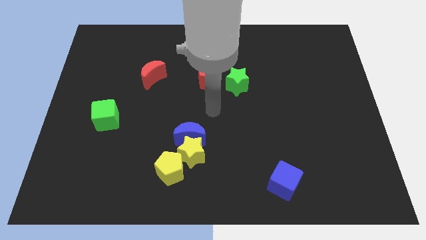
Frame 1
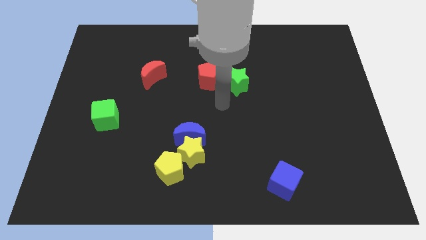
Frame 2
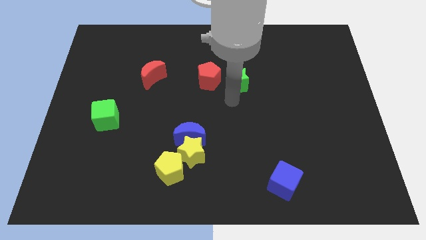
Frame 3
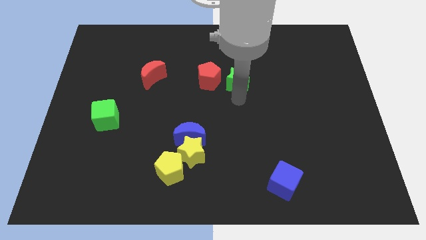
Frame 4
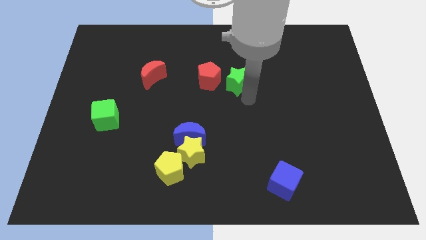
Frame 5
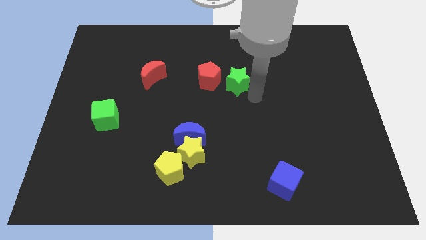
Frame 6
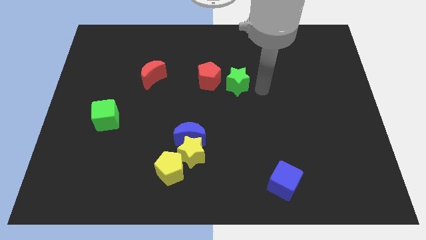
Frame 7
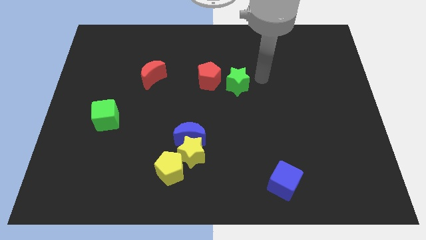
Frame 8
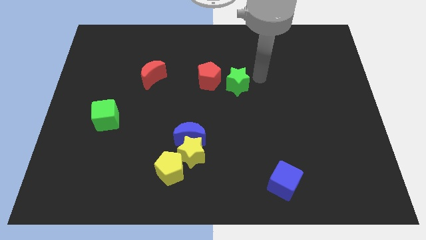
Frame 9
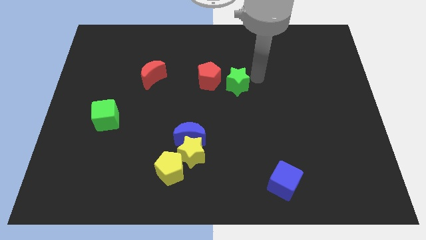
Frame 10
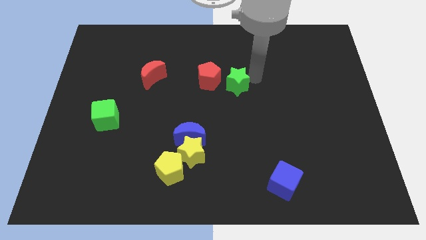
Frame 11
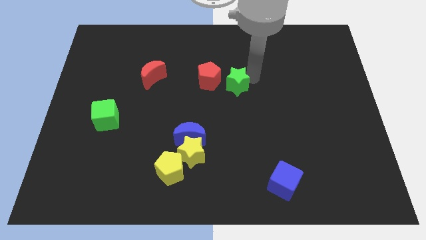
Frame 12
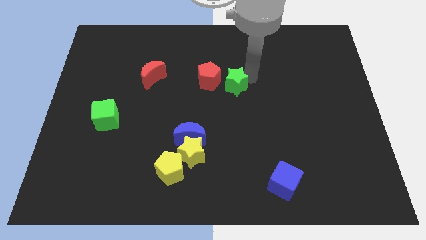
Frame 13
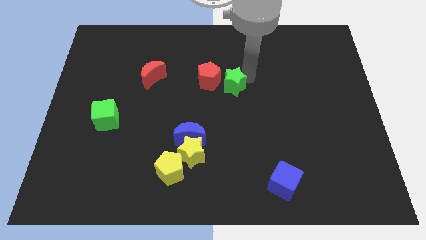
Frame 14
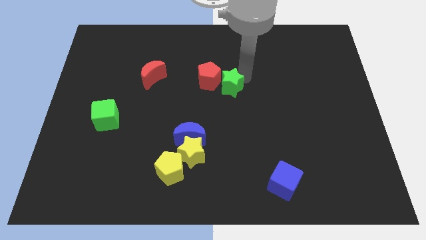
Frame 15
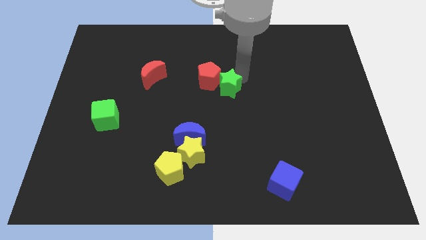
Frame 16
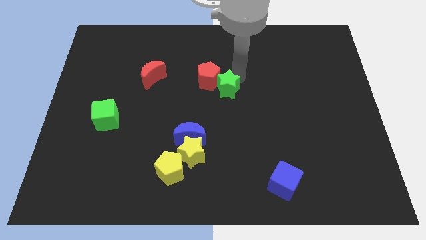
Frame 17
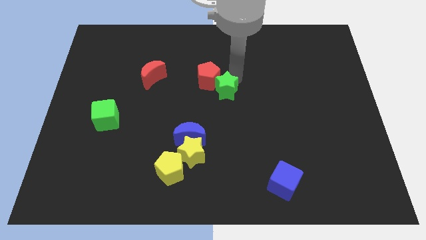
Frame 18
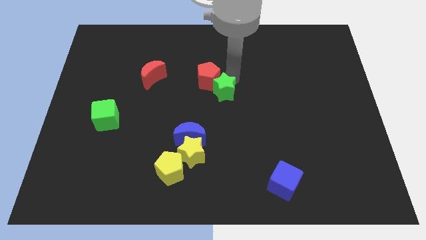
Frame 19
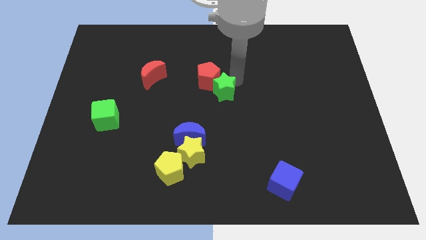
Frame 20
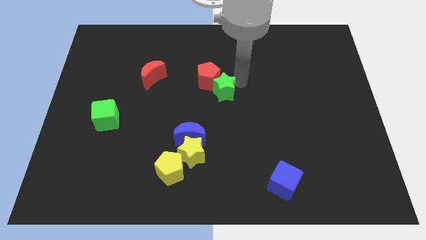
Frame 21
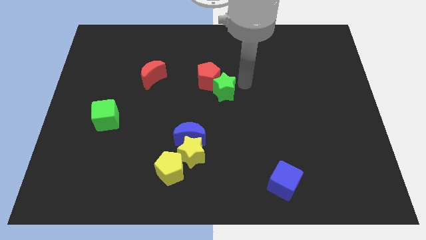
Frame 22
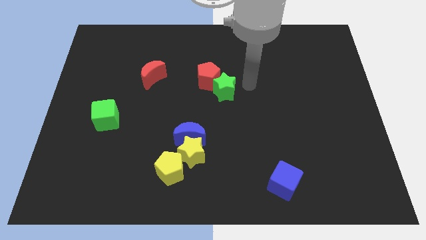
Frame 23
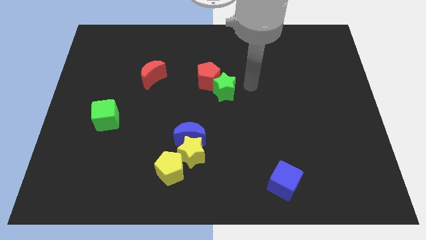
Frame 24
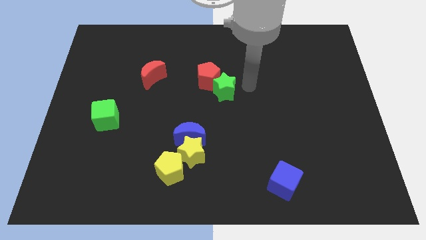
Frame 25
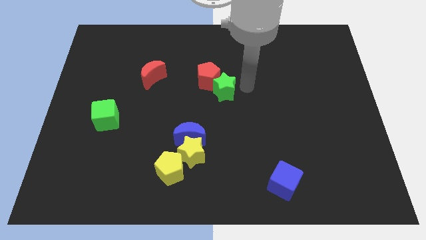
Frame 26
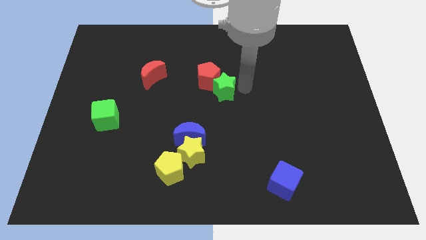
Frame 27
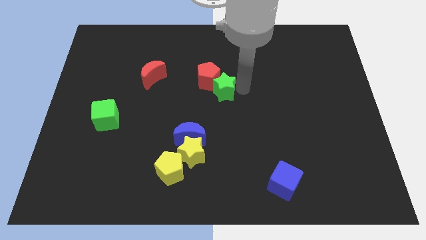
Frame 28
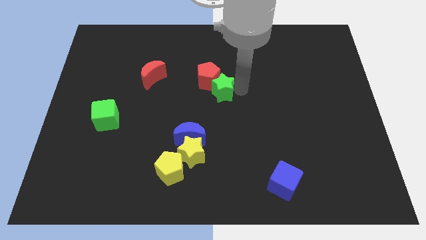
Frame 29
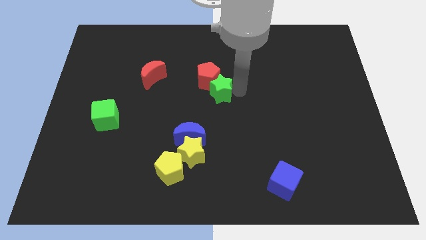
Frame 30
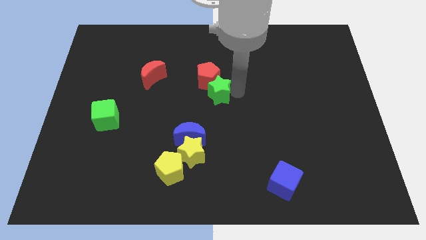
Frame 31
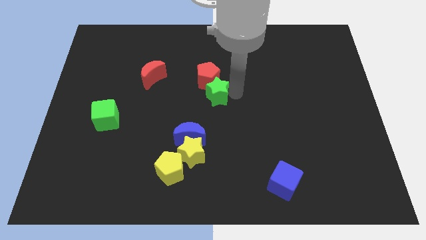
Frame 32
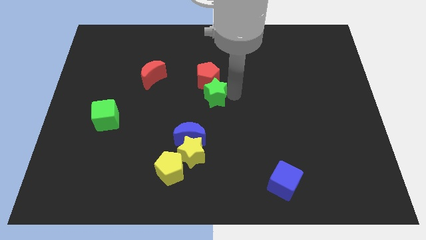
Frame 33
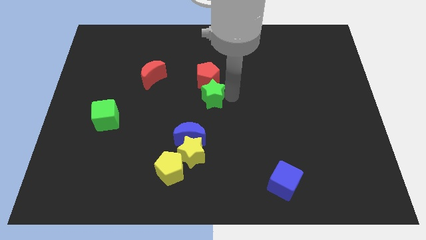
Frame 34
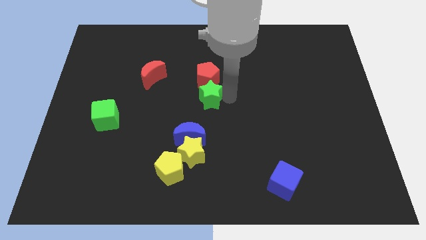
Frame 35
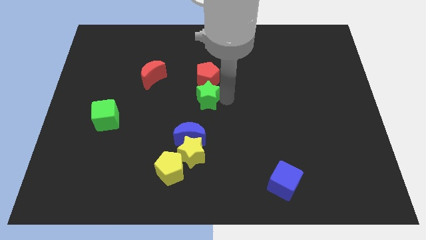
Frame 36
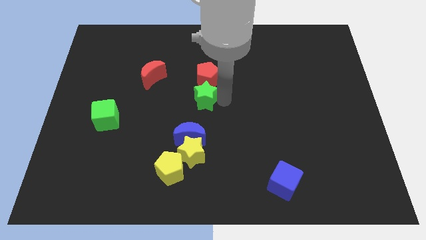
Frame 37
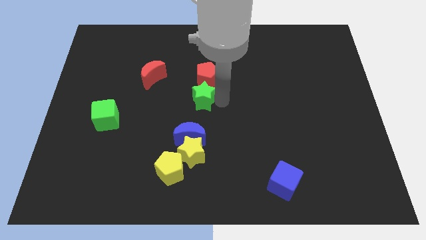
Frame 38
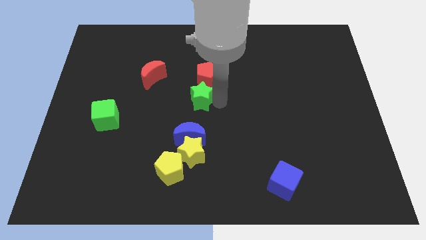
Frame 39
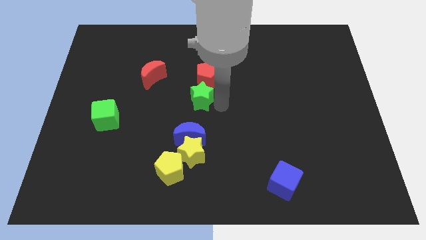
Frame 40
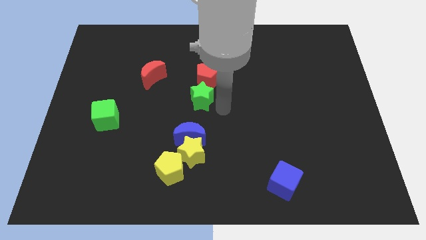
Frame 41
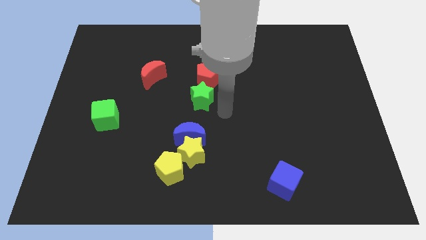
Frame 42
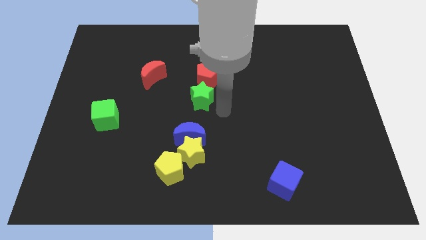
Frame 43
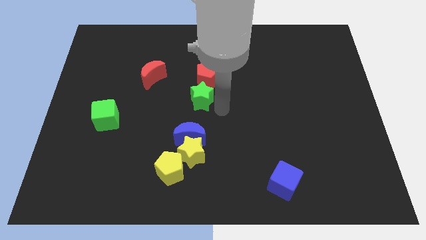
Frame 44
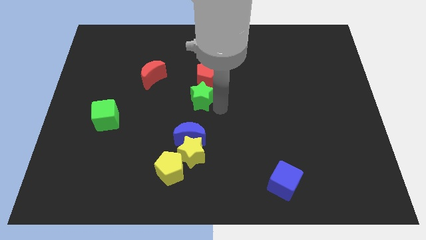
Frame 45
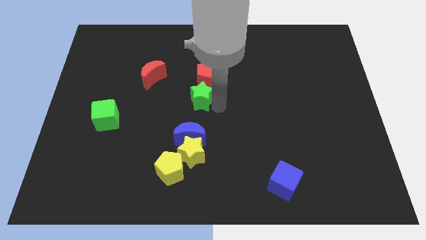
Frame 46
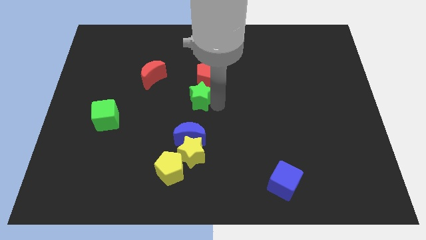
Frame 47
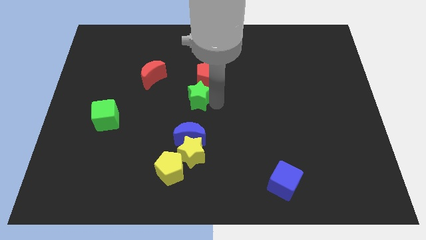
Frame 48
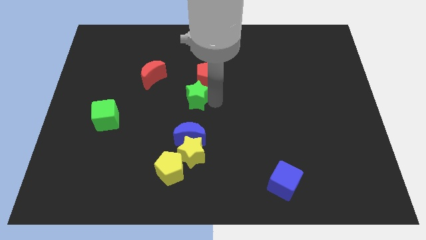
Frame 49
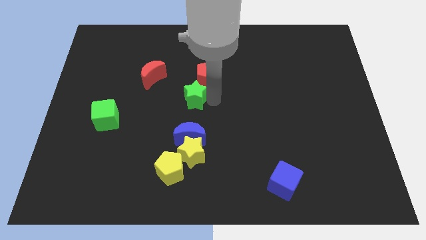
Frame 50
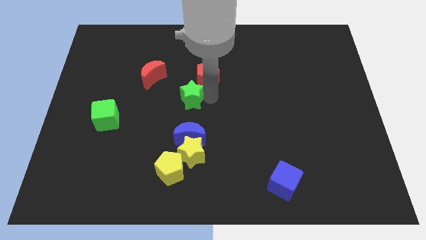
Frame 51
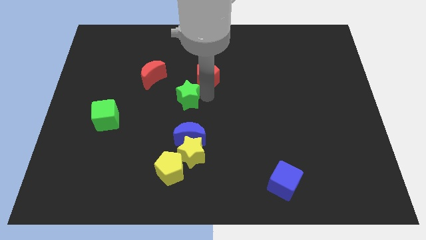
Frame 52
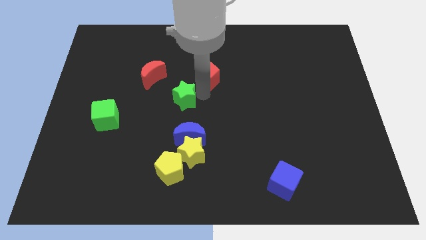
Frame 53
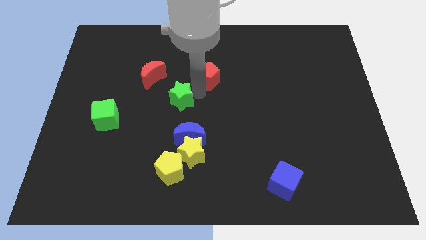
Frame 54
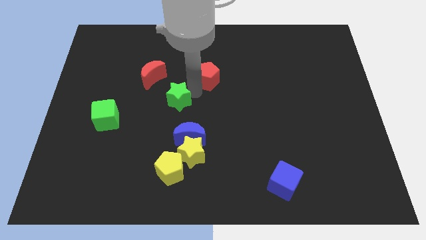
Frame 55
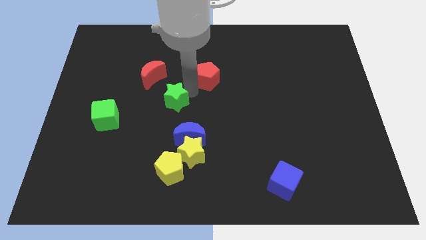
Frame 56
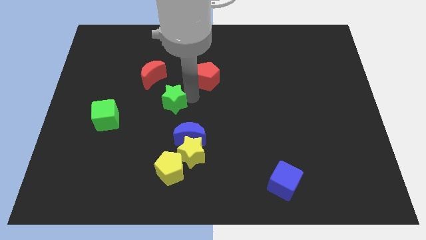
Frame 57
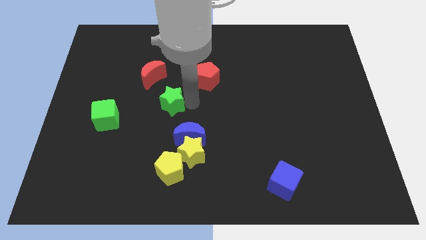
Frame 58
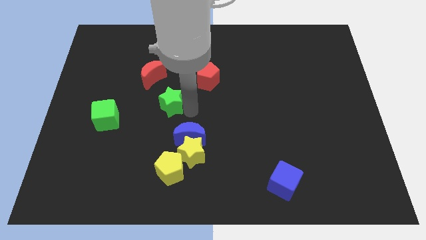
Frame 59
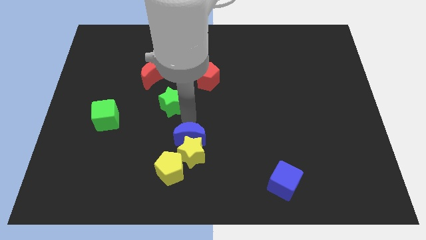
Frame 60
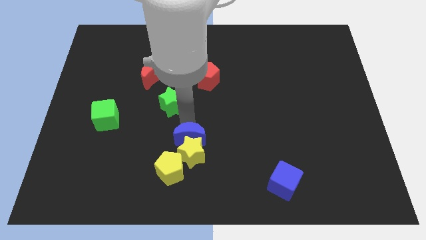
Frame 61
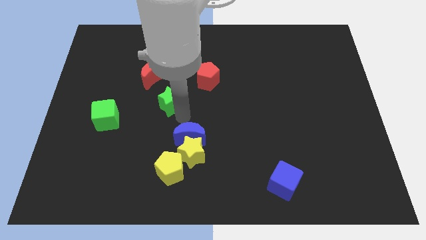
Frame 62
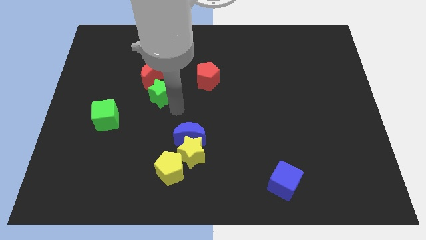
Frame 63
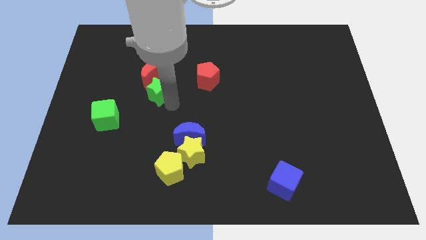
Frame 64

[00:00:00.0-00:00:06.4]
push the green star to the red moon
